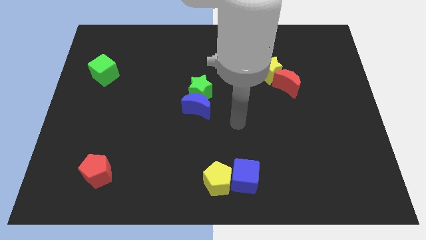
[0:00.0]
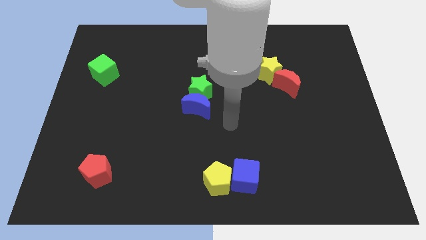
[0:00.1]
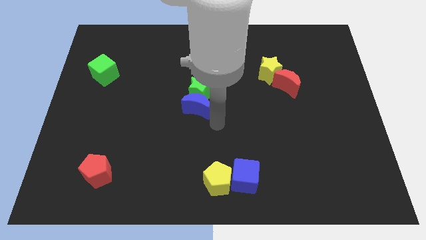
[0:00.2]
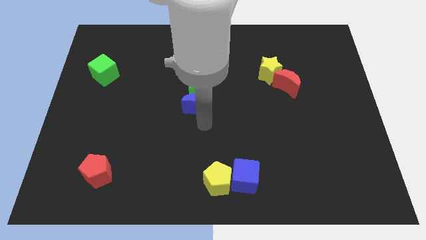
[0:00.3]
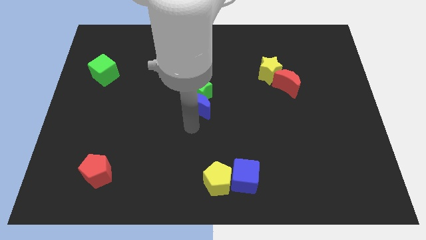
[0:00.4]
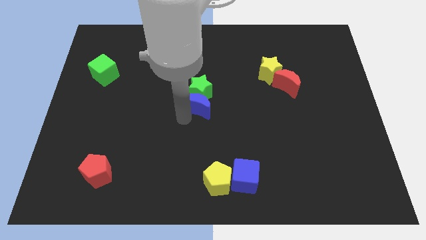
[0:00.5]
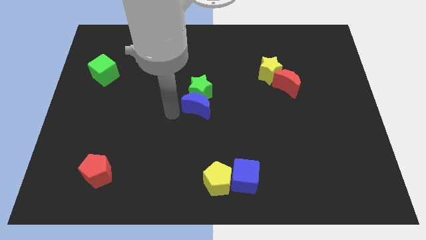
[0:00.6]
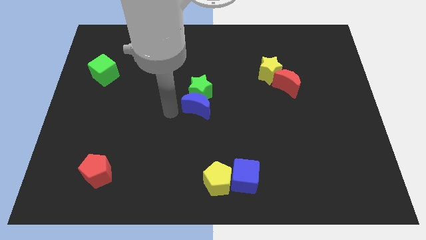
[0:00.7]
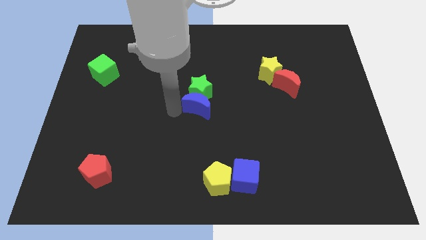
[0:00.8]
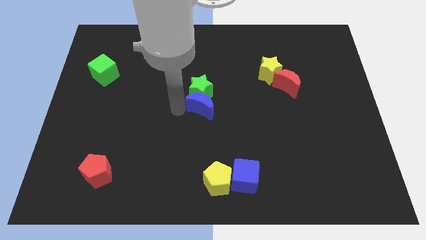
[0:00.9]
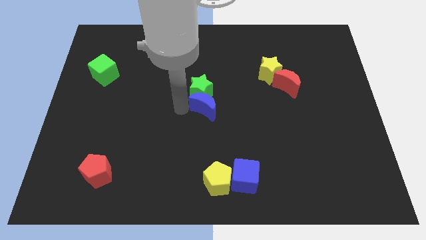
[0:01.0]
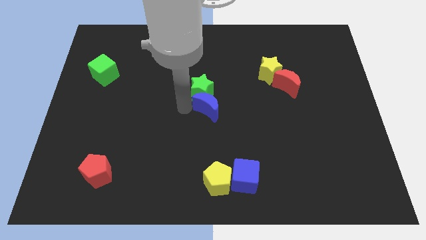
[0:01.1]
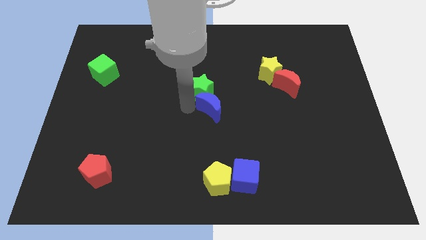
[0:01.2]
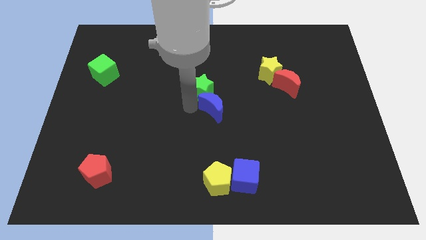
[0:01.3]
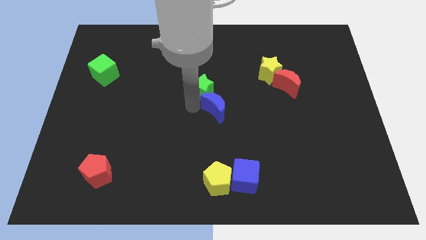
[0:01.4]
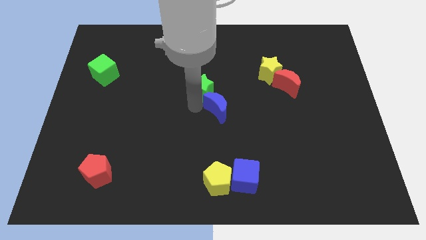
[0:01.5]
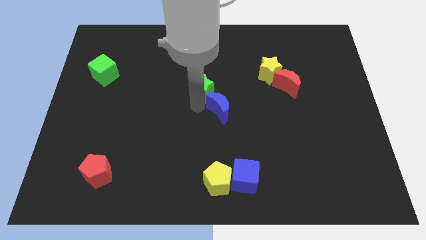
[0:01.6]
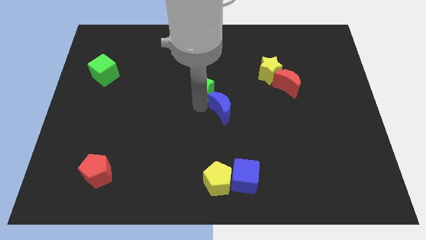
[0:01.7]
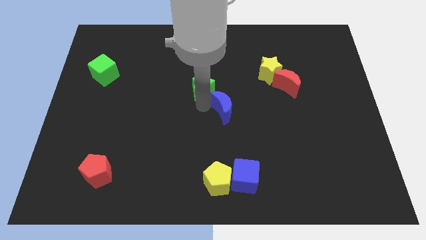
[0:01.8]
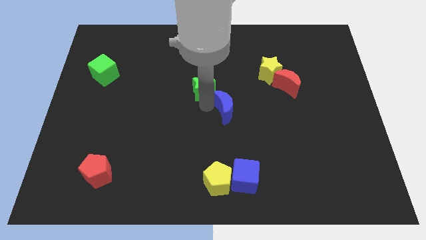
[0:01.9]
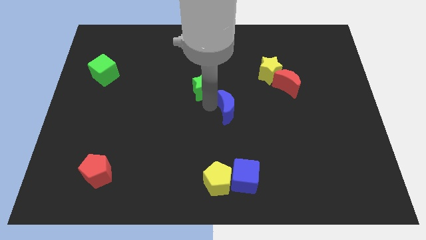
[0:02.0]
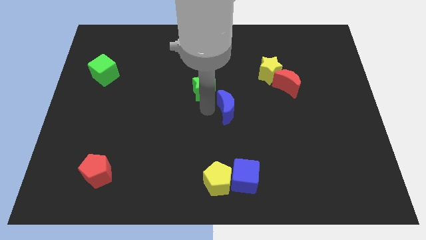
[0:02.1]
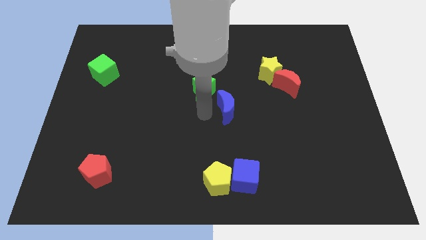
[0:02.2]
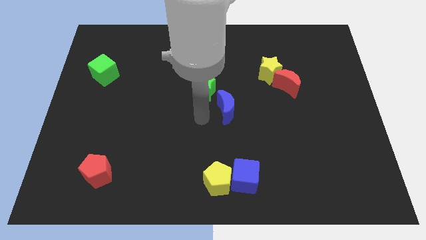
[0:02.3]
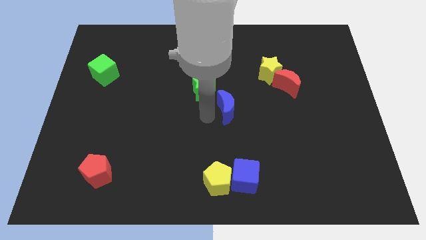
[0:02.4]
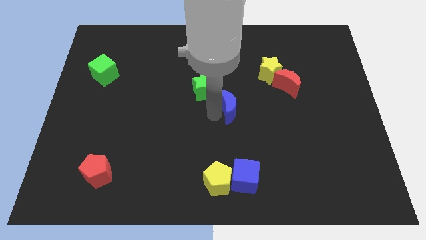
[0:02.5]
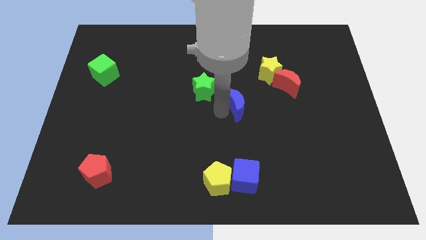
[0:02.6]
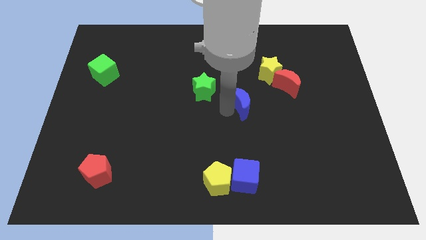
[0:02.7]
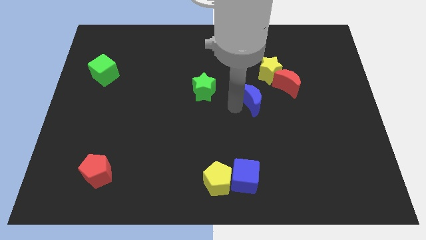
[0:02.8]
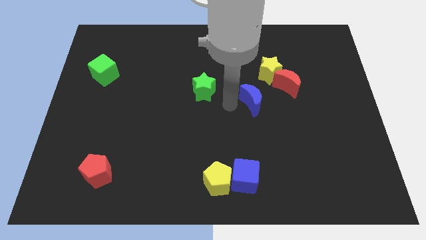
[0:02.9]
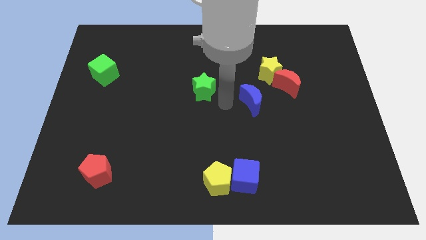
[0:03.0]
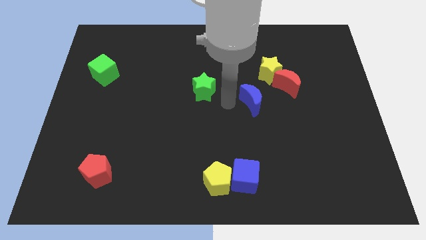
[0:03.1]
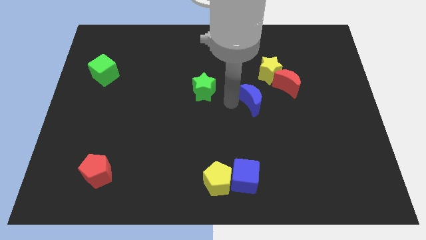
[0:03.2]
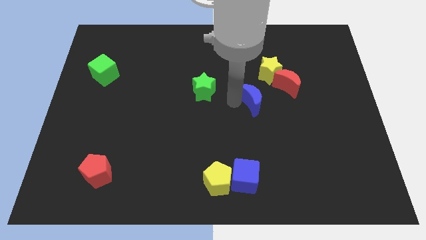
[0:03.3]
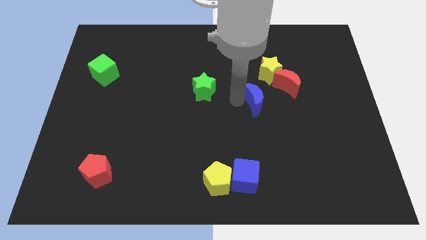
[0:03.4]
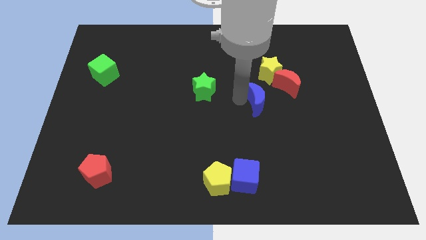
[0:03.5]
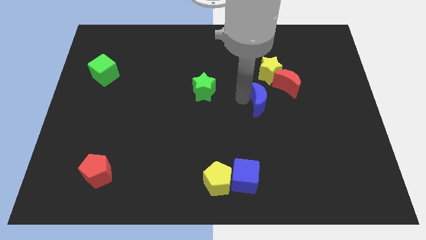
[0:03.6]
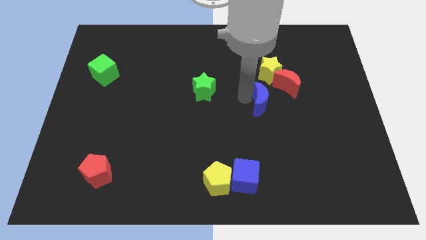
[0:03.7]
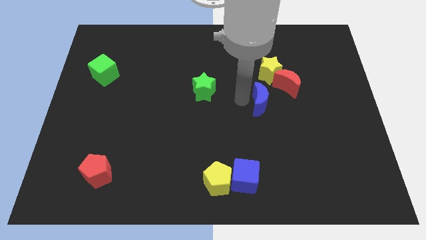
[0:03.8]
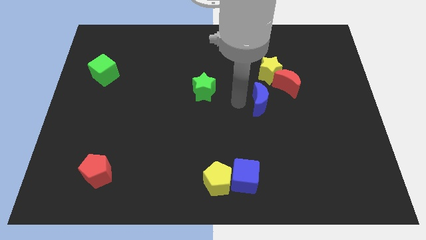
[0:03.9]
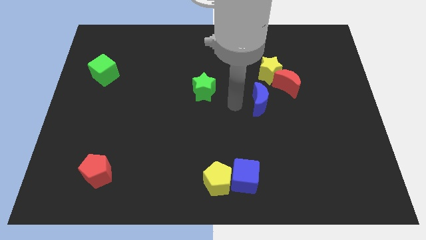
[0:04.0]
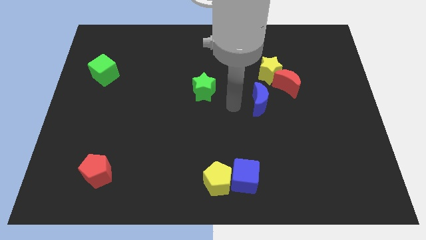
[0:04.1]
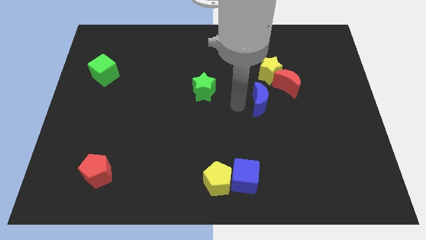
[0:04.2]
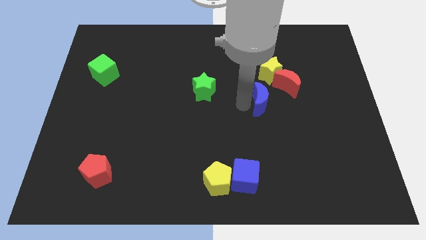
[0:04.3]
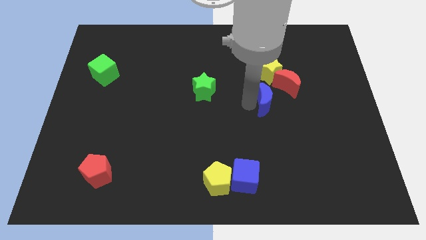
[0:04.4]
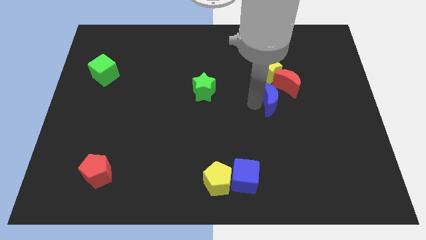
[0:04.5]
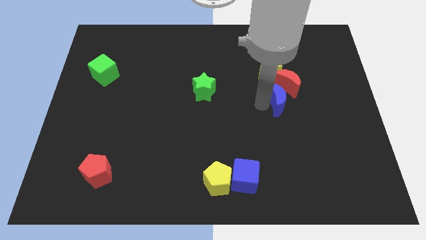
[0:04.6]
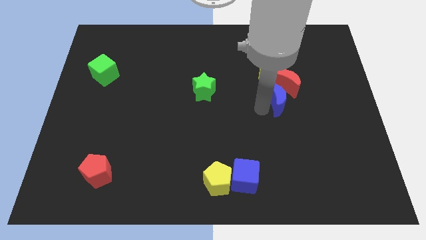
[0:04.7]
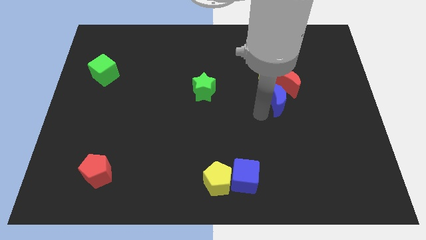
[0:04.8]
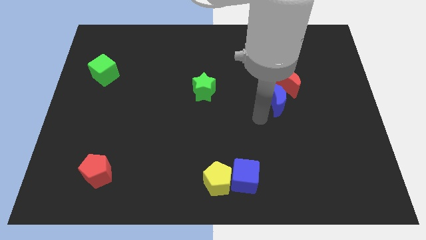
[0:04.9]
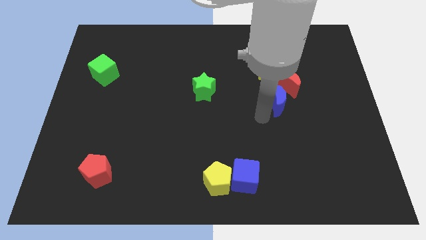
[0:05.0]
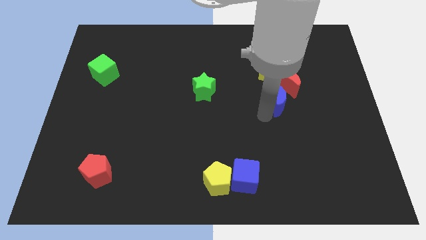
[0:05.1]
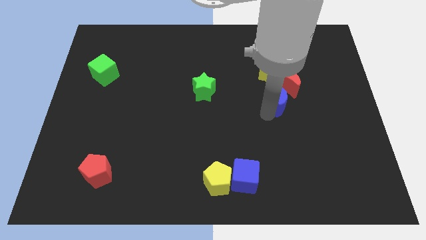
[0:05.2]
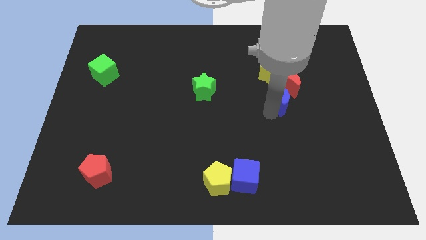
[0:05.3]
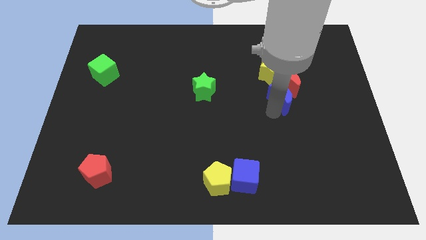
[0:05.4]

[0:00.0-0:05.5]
move the blue moon to the bottom right of the yellow star

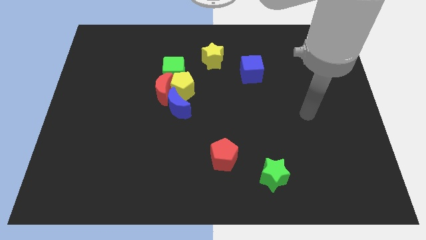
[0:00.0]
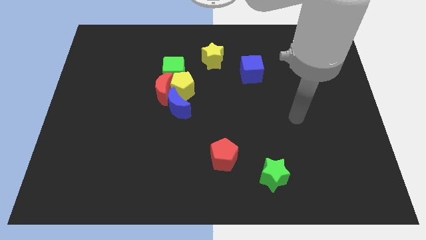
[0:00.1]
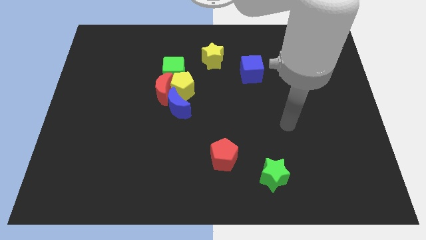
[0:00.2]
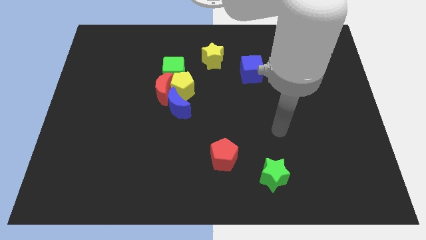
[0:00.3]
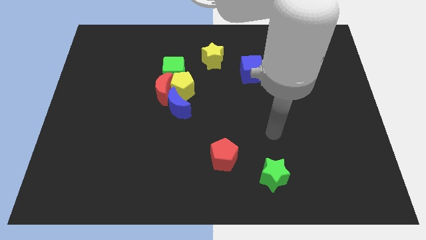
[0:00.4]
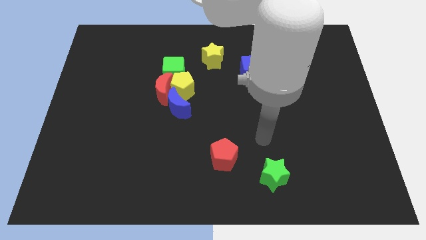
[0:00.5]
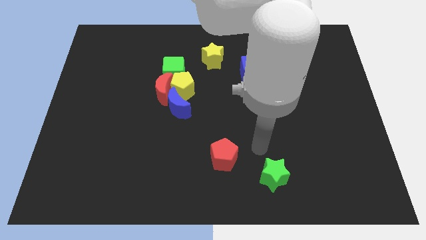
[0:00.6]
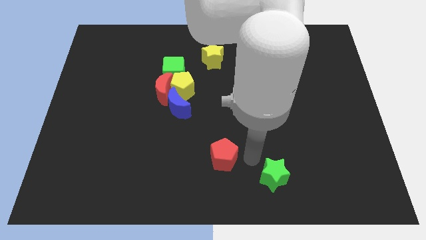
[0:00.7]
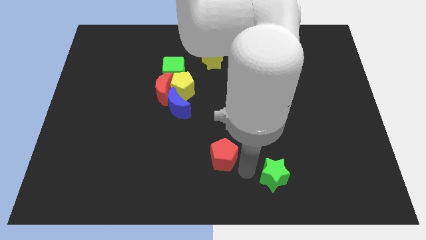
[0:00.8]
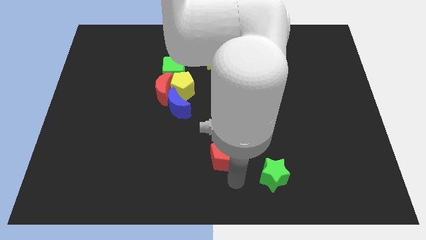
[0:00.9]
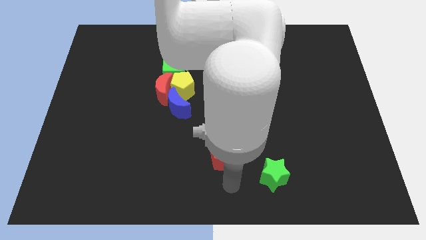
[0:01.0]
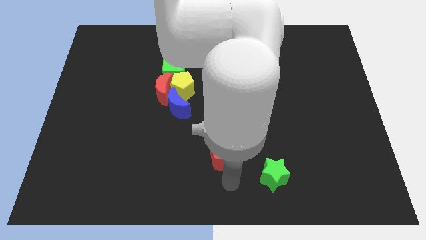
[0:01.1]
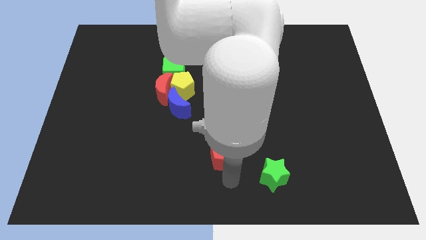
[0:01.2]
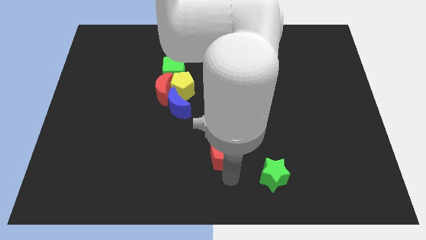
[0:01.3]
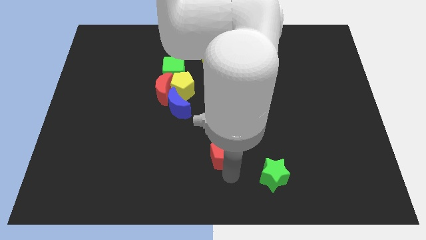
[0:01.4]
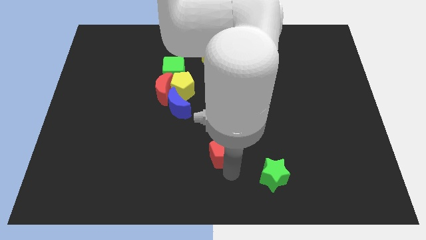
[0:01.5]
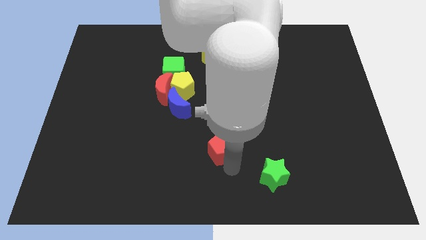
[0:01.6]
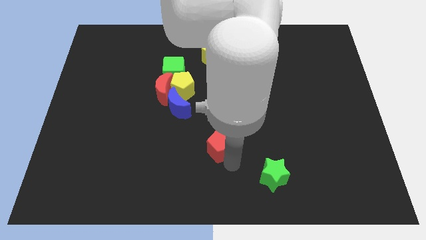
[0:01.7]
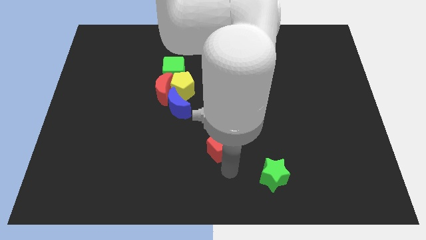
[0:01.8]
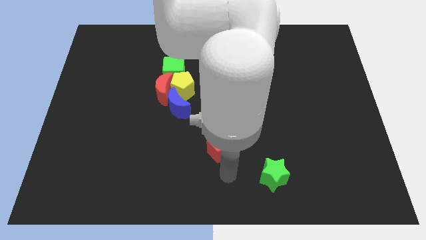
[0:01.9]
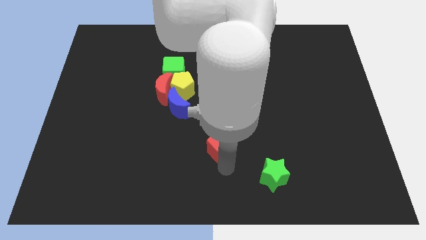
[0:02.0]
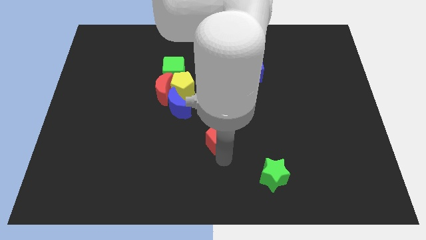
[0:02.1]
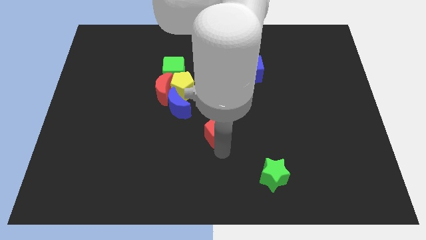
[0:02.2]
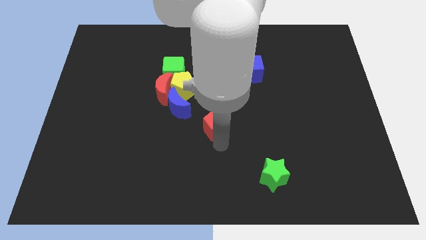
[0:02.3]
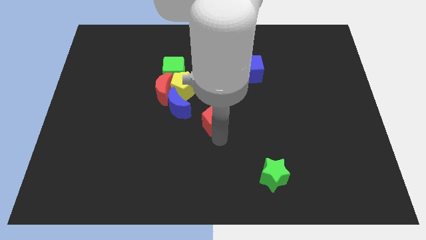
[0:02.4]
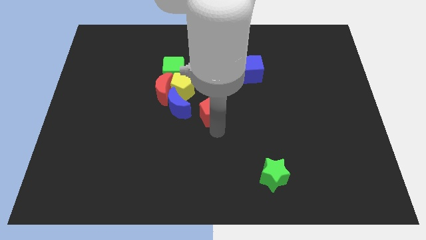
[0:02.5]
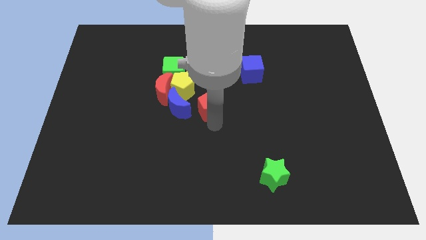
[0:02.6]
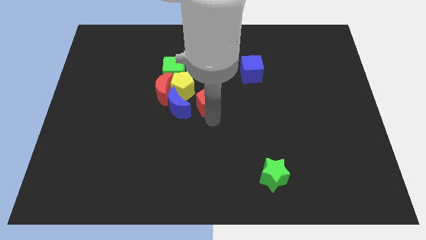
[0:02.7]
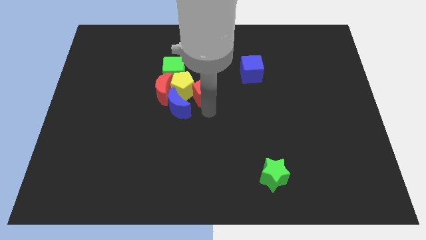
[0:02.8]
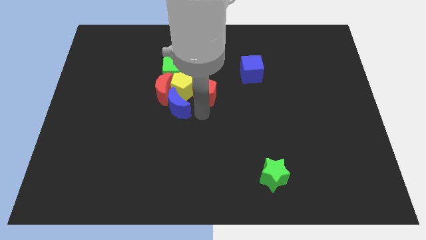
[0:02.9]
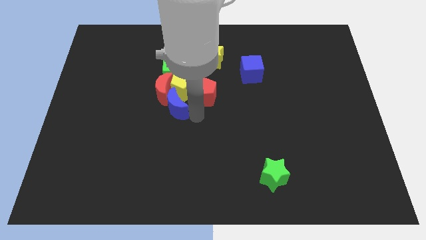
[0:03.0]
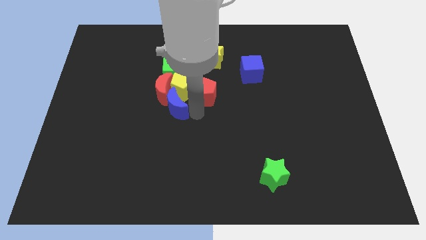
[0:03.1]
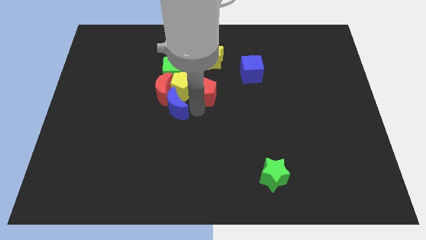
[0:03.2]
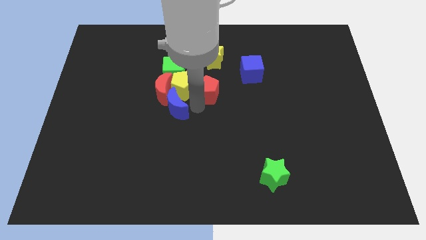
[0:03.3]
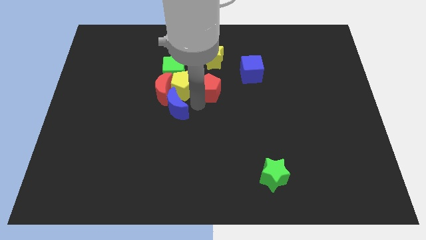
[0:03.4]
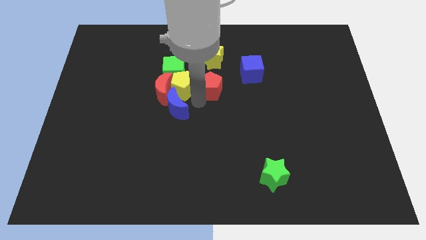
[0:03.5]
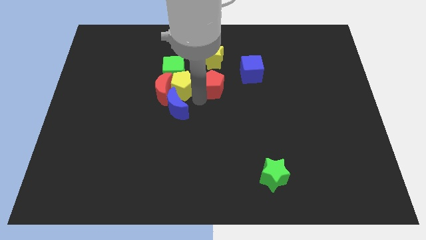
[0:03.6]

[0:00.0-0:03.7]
slide the red pentagon to the right of the green cube
